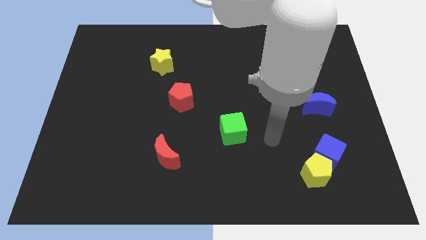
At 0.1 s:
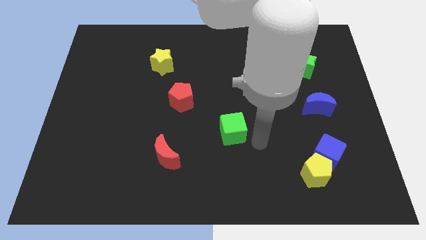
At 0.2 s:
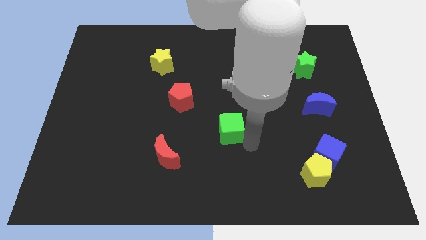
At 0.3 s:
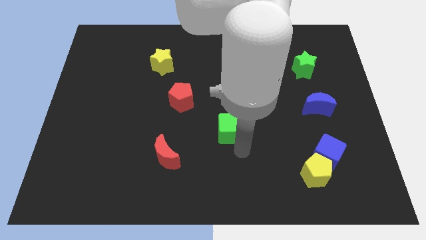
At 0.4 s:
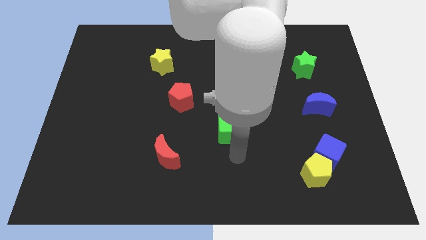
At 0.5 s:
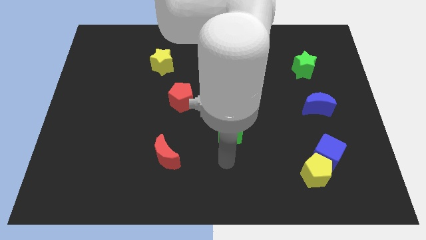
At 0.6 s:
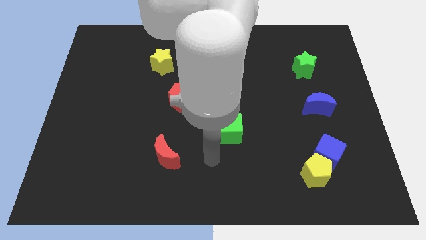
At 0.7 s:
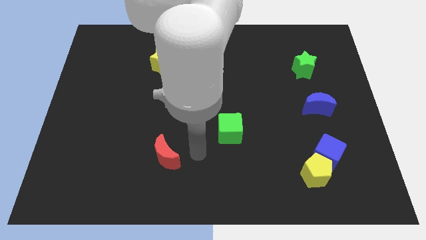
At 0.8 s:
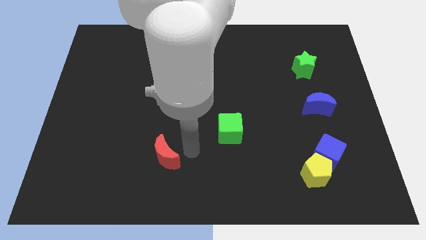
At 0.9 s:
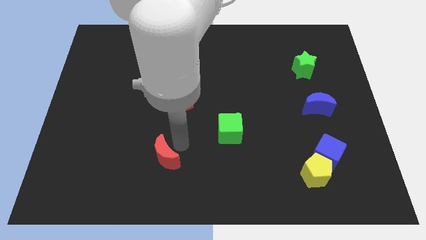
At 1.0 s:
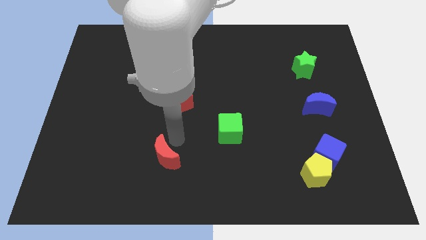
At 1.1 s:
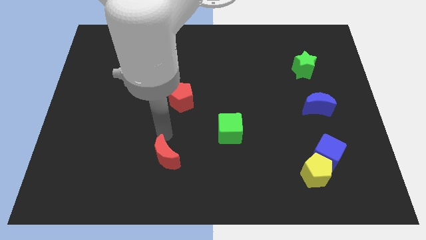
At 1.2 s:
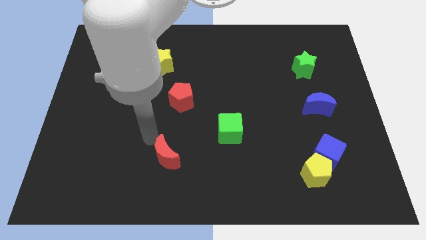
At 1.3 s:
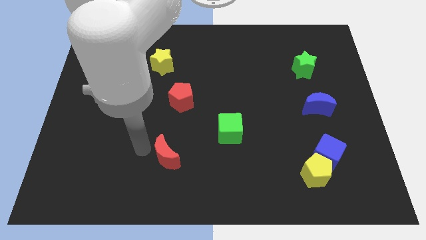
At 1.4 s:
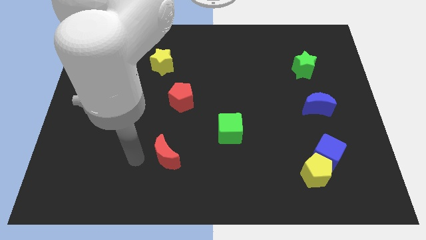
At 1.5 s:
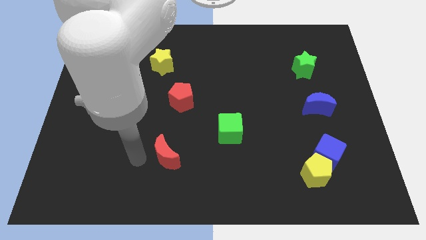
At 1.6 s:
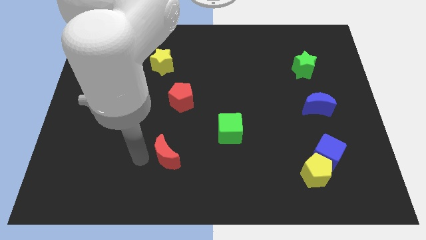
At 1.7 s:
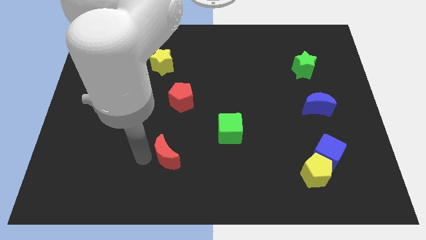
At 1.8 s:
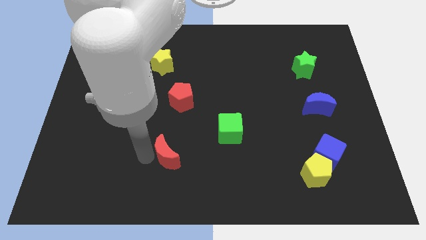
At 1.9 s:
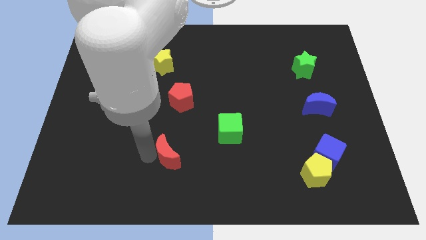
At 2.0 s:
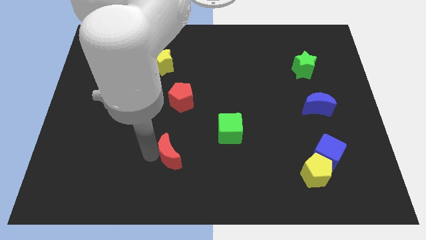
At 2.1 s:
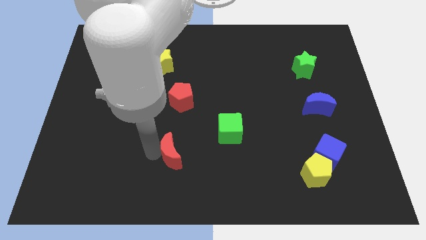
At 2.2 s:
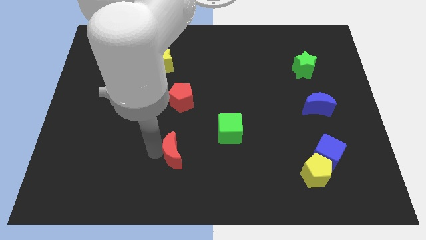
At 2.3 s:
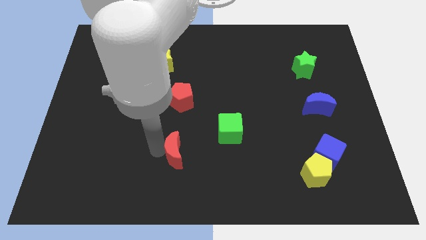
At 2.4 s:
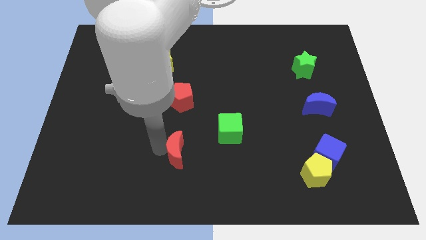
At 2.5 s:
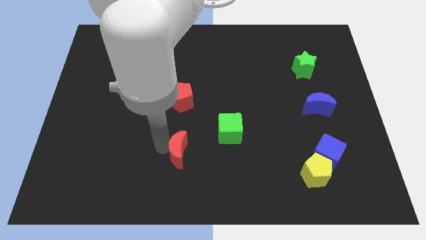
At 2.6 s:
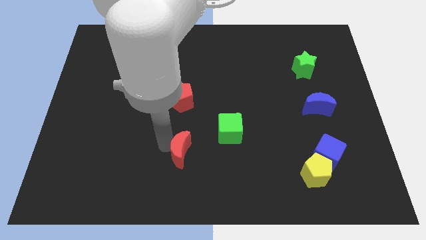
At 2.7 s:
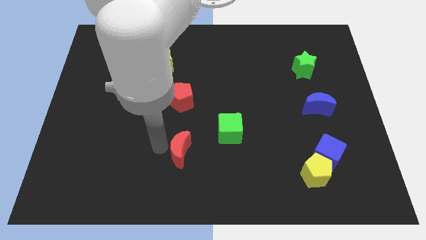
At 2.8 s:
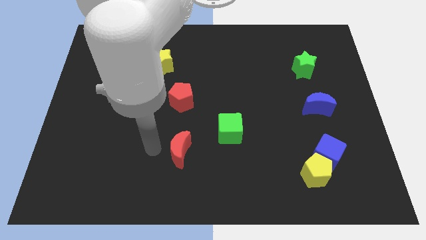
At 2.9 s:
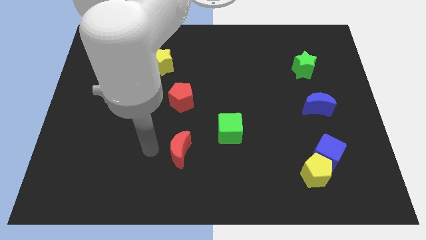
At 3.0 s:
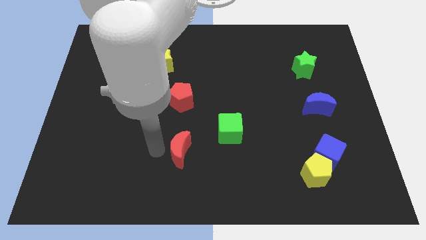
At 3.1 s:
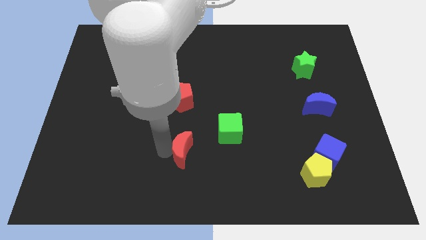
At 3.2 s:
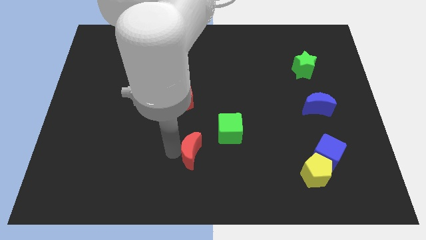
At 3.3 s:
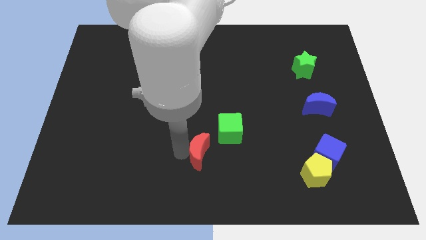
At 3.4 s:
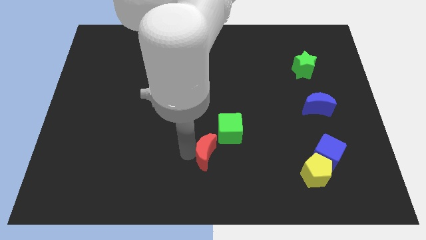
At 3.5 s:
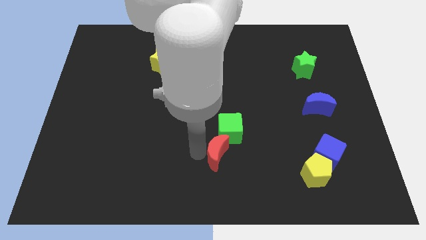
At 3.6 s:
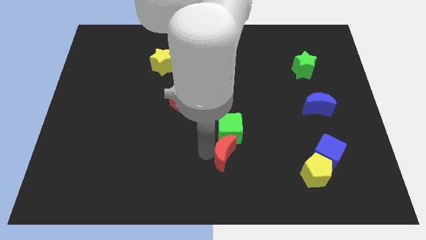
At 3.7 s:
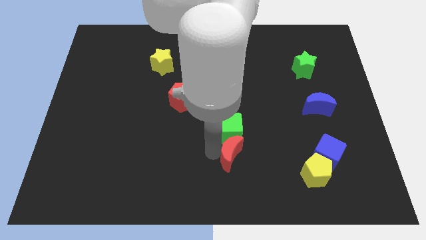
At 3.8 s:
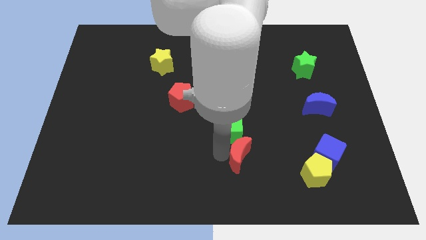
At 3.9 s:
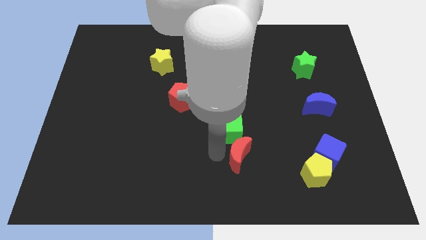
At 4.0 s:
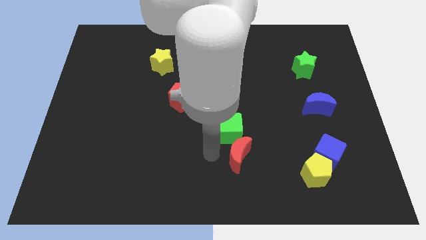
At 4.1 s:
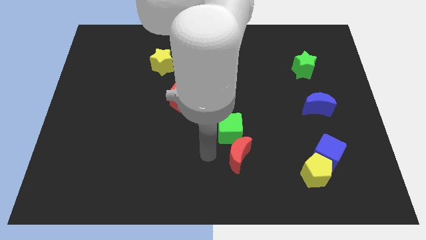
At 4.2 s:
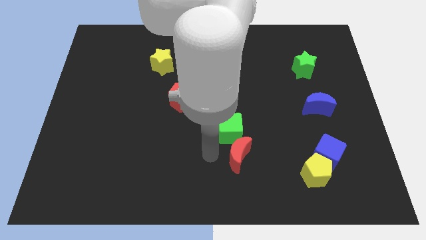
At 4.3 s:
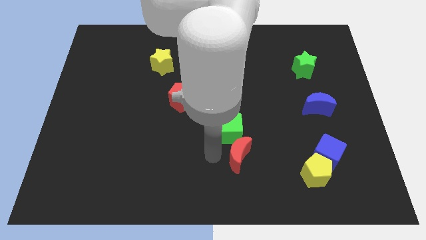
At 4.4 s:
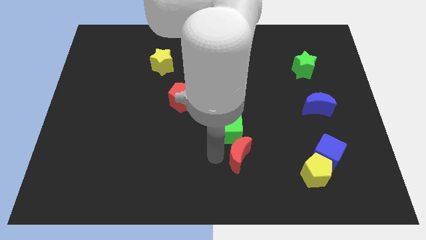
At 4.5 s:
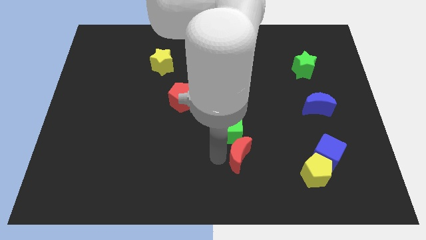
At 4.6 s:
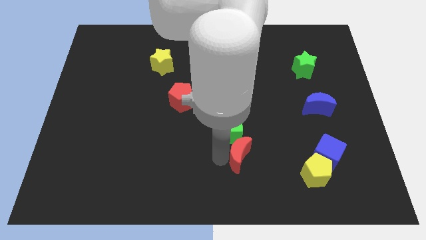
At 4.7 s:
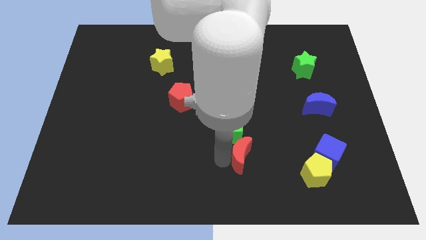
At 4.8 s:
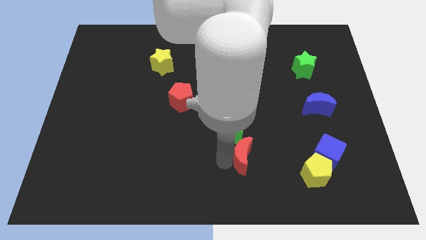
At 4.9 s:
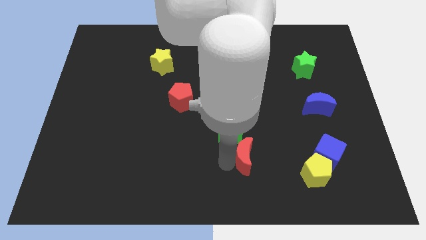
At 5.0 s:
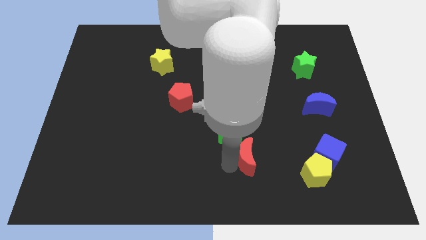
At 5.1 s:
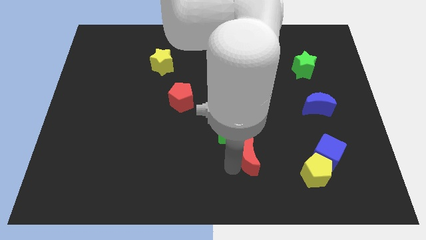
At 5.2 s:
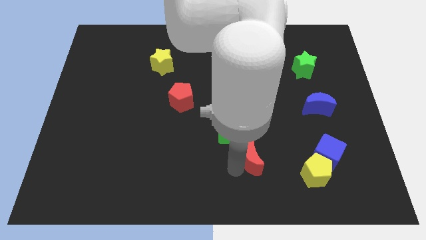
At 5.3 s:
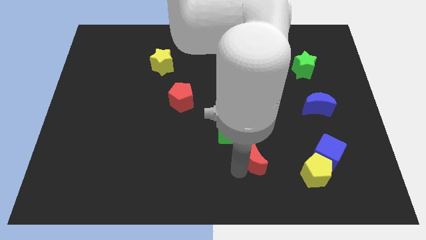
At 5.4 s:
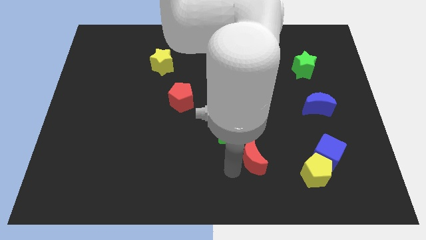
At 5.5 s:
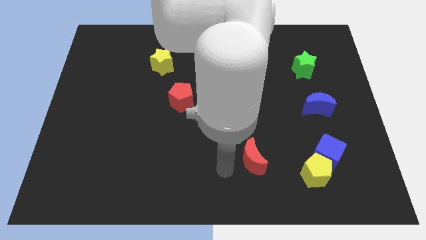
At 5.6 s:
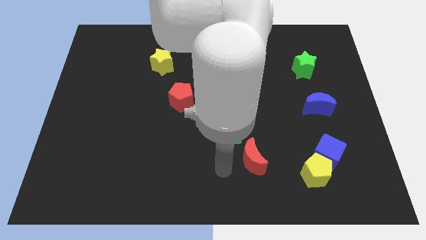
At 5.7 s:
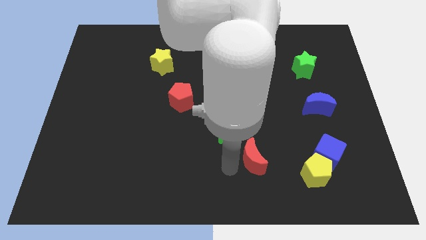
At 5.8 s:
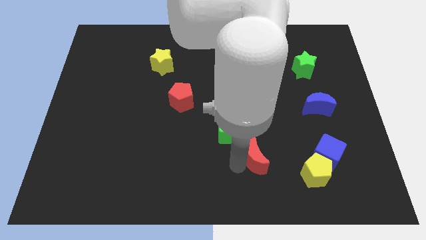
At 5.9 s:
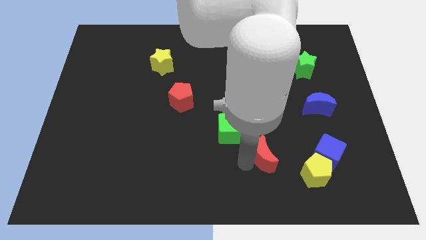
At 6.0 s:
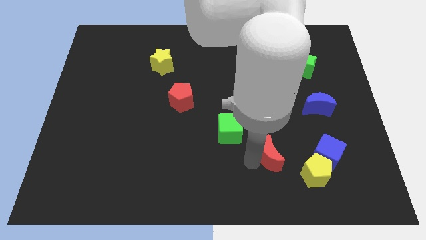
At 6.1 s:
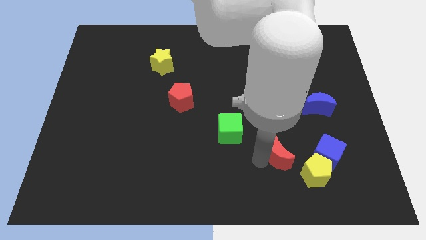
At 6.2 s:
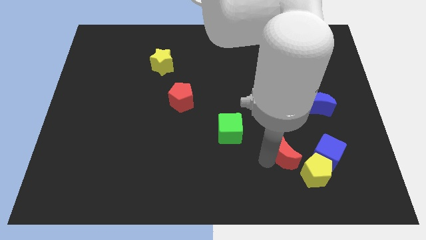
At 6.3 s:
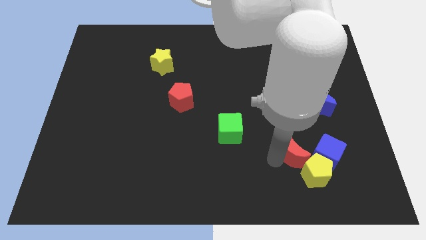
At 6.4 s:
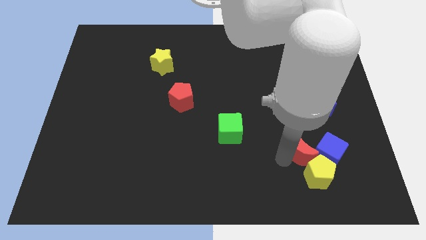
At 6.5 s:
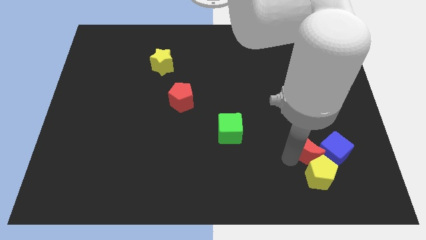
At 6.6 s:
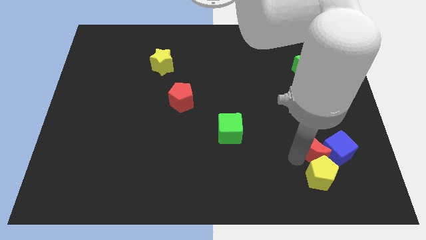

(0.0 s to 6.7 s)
put the red moon to the top right side of the yellow pentagon
